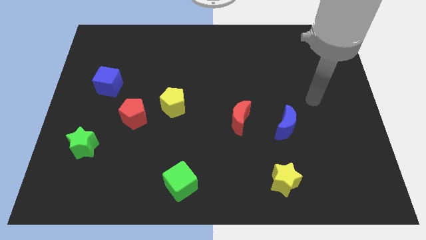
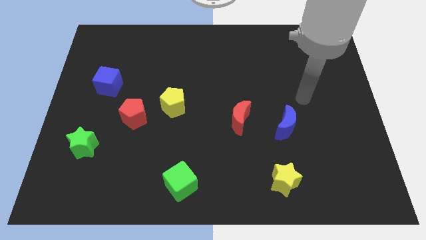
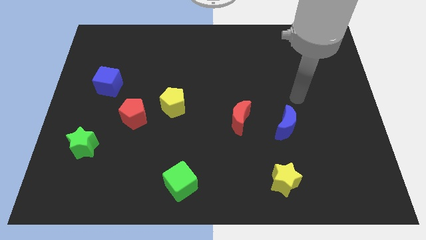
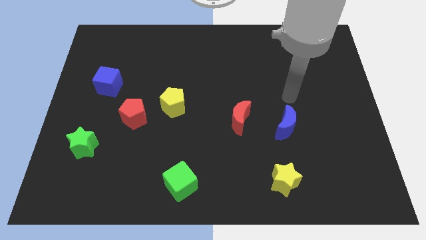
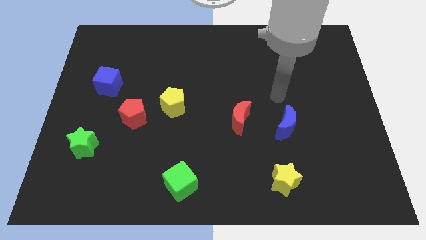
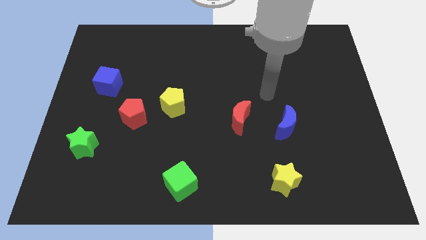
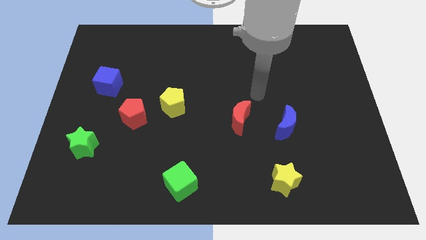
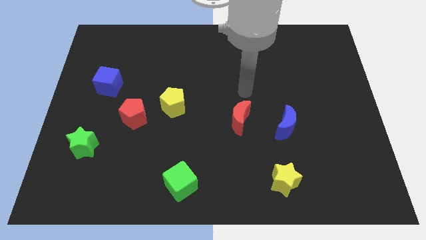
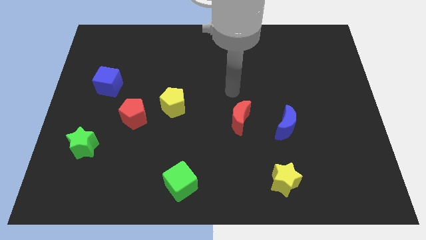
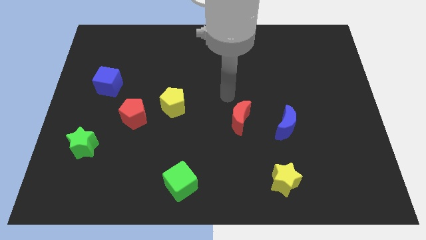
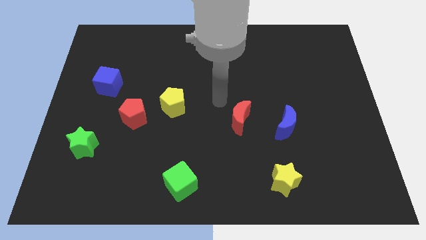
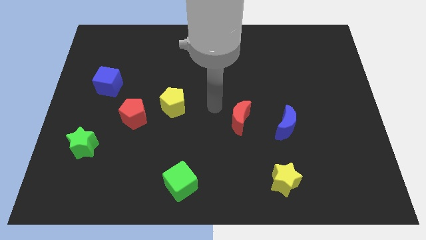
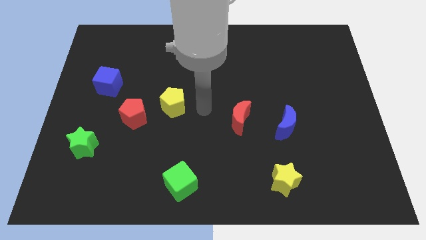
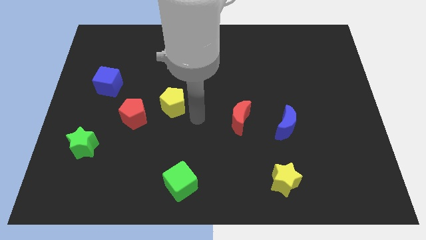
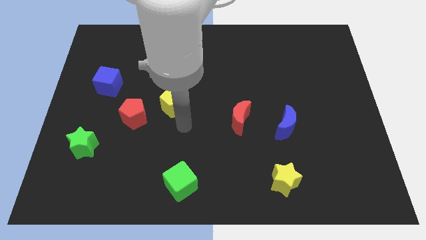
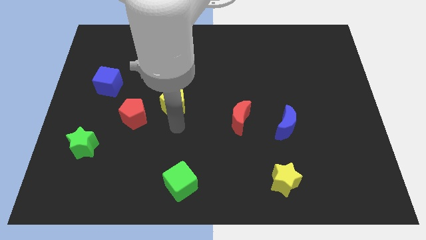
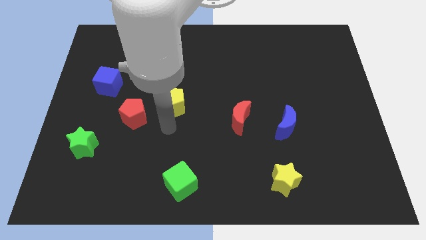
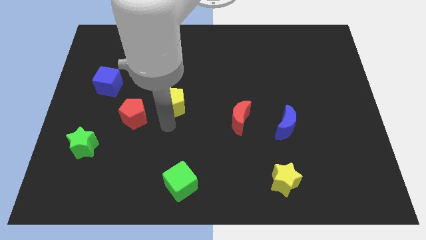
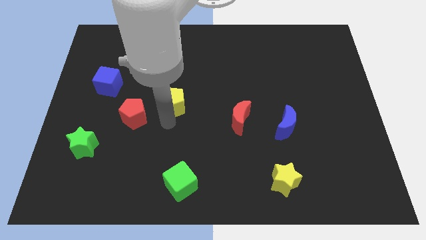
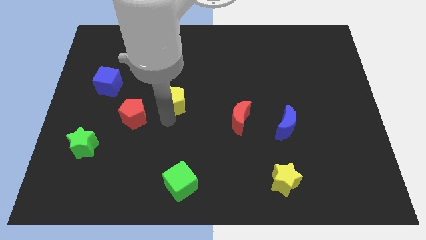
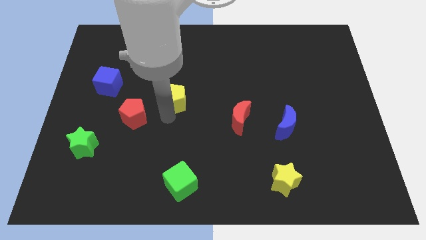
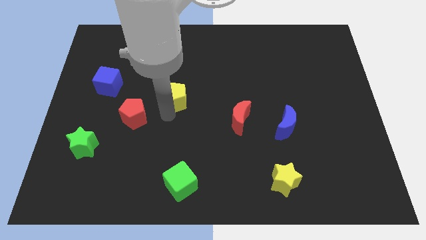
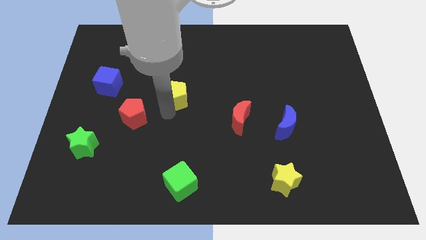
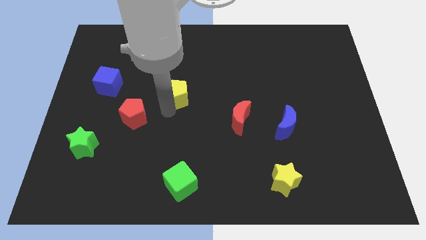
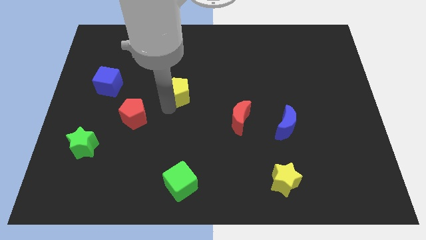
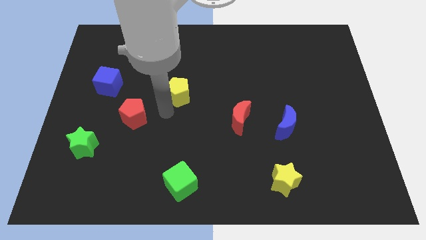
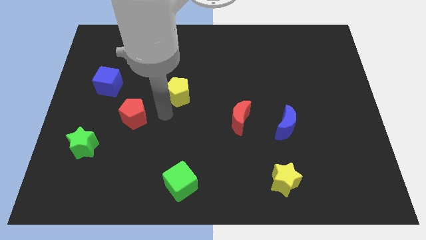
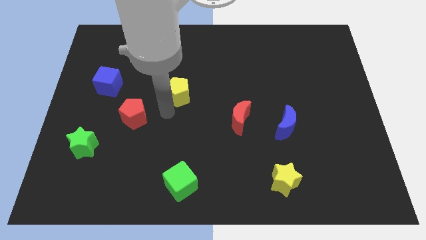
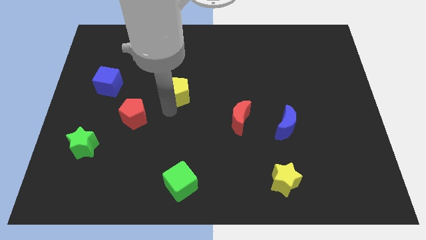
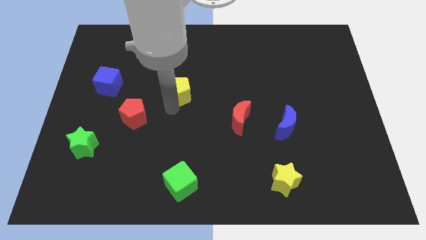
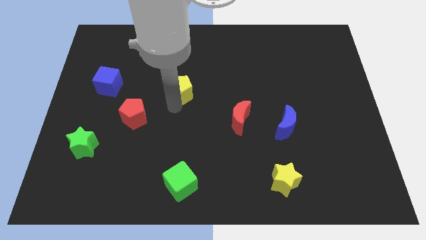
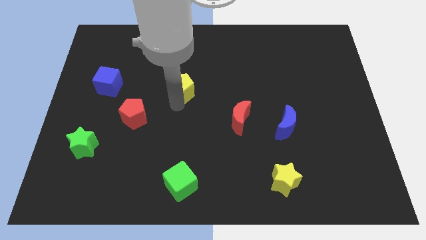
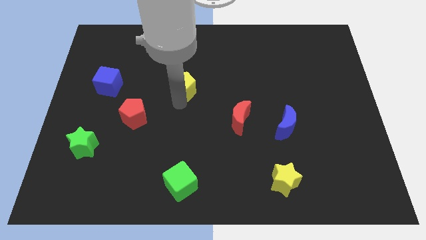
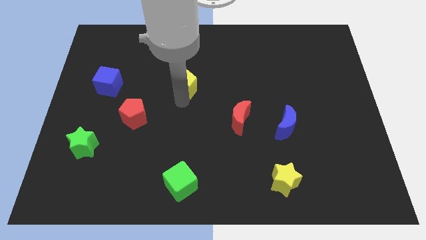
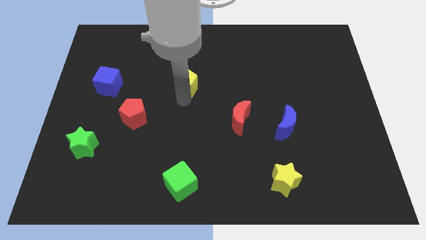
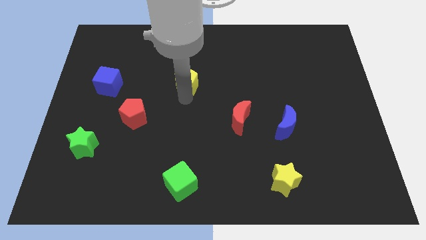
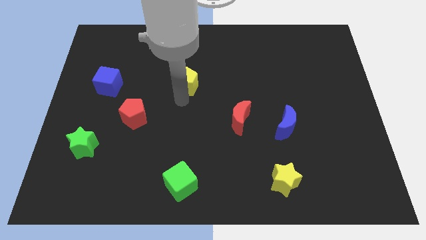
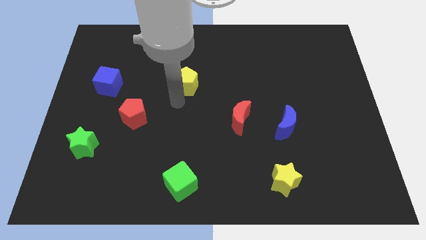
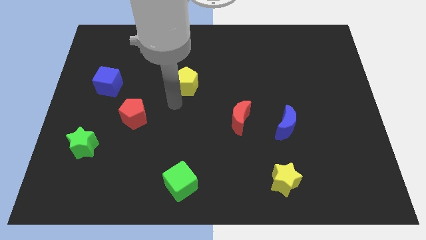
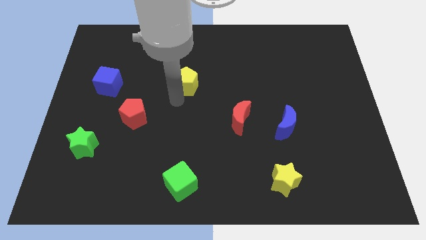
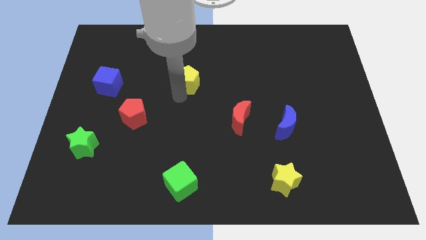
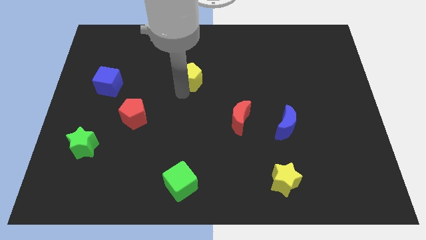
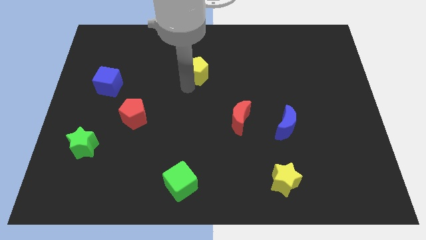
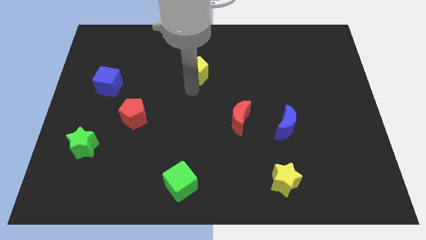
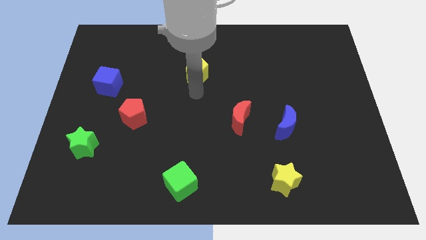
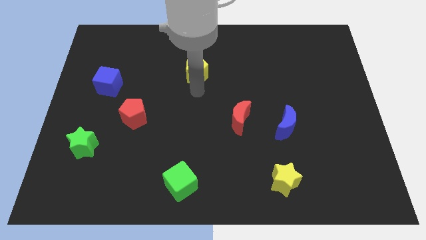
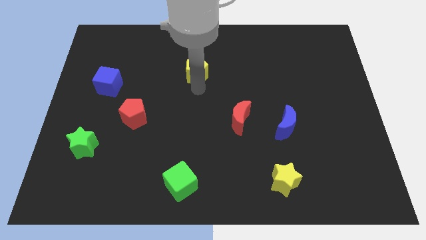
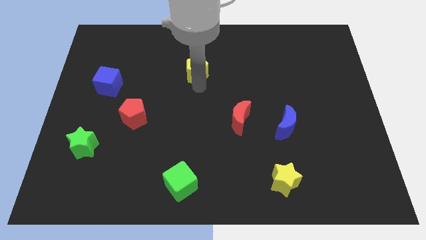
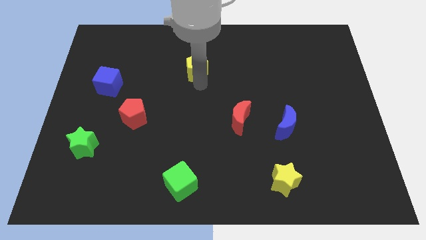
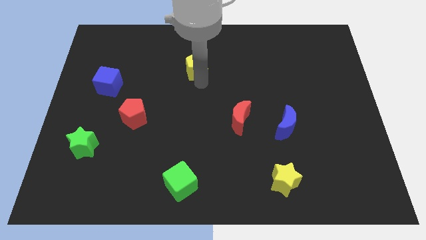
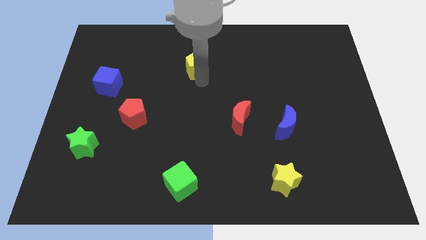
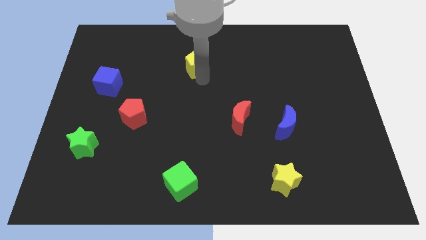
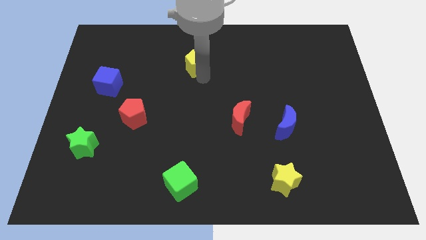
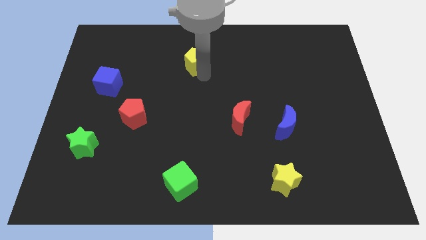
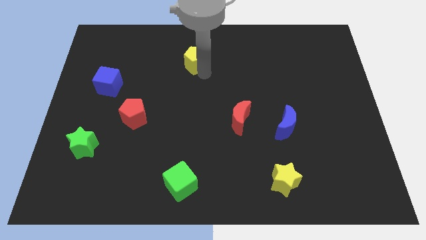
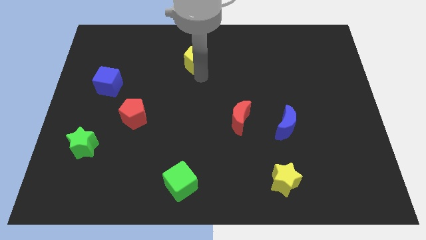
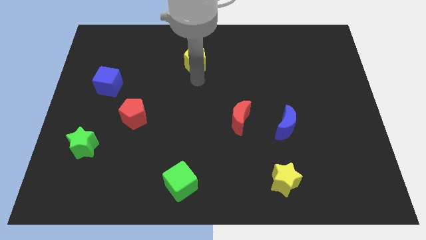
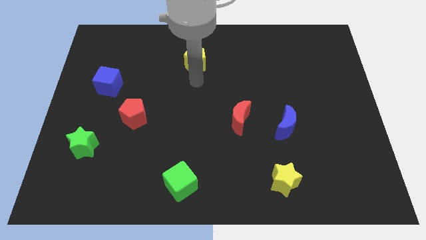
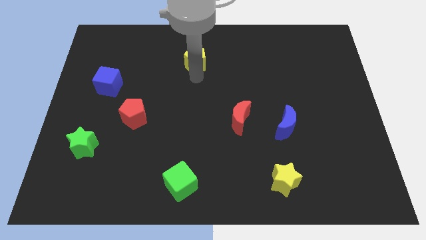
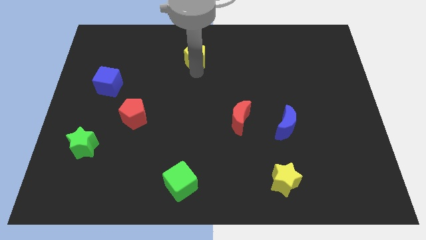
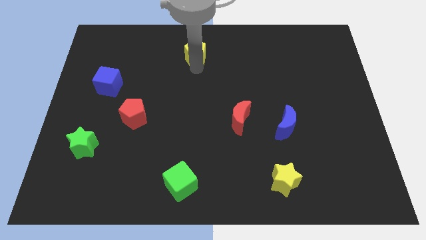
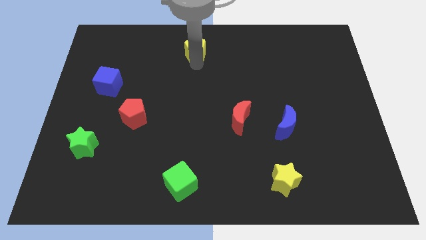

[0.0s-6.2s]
slide the yellow pentagon to the towards your base

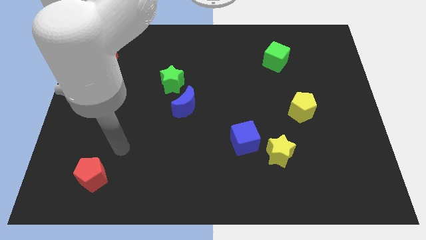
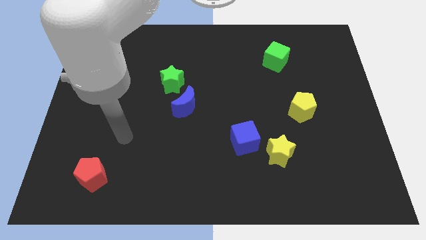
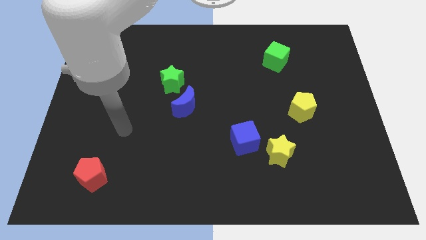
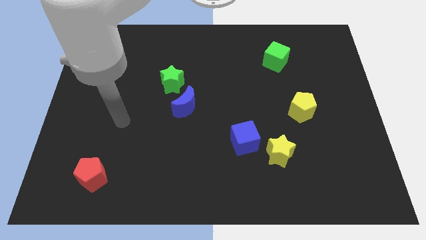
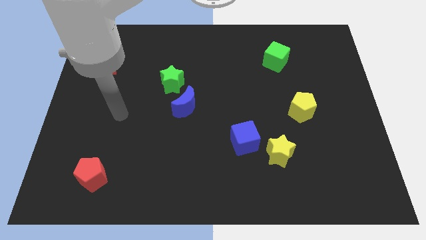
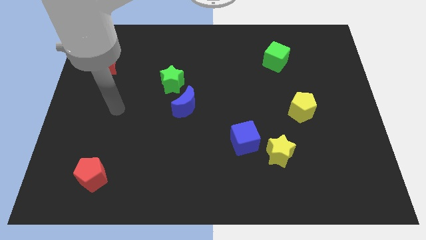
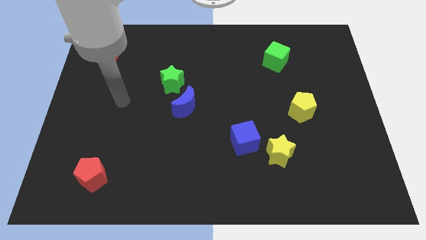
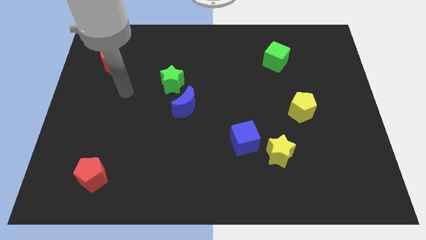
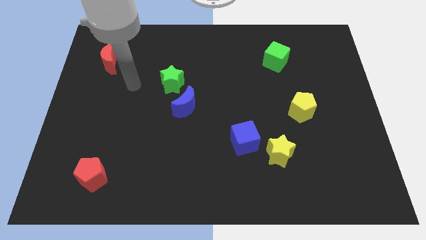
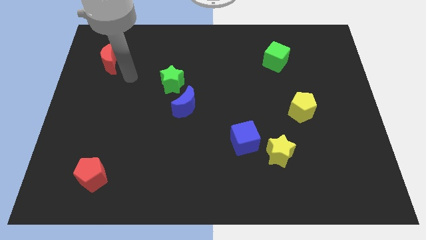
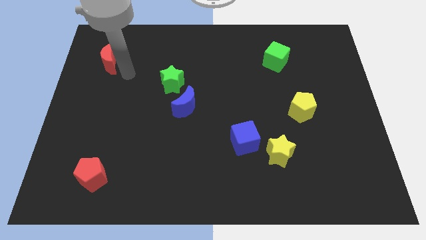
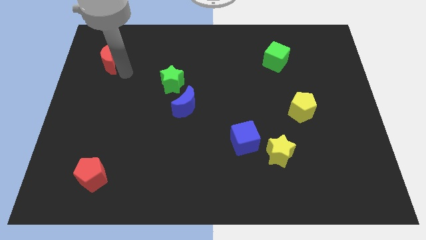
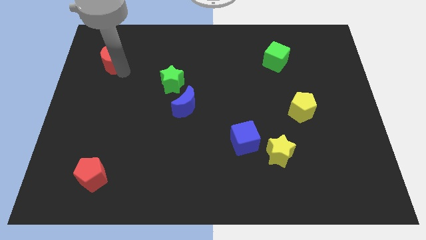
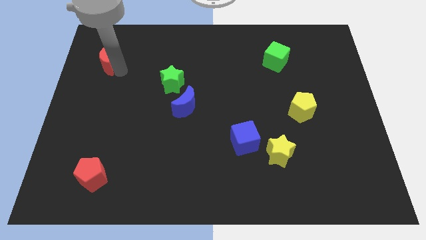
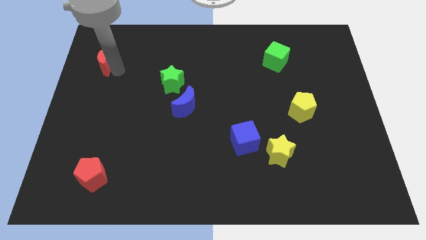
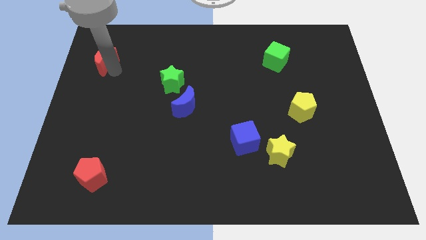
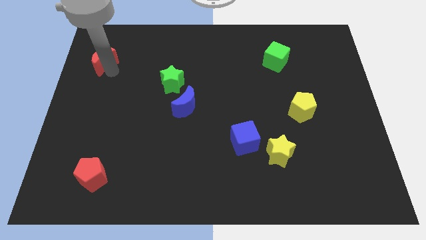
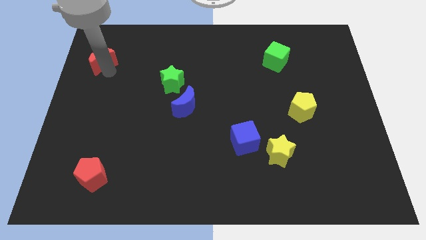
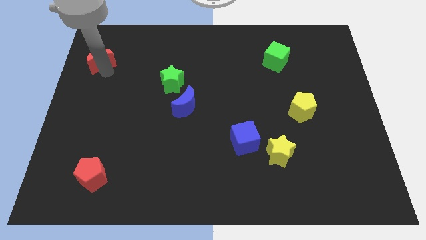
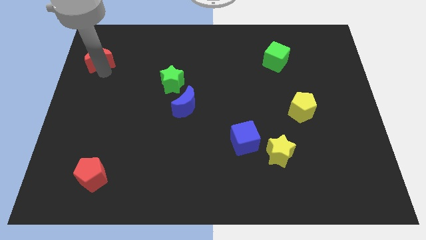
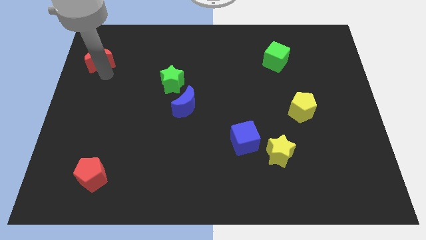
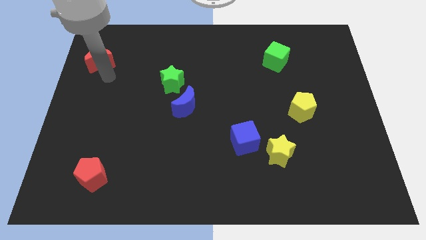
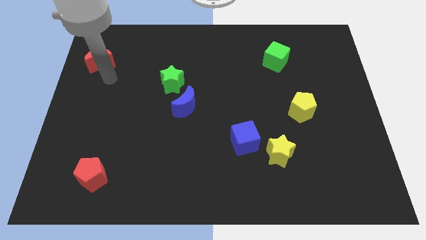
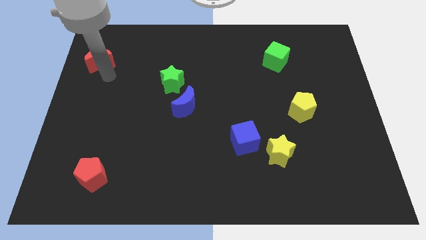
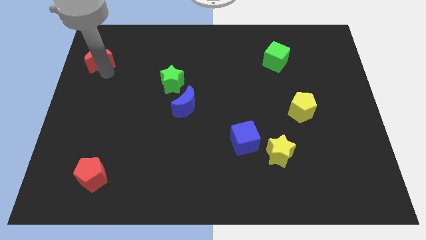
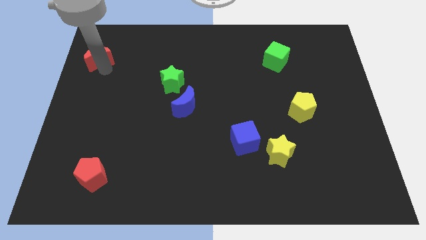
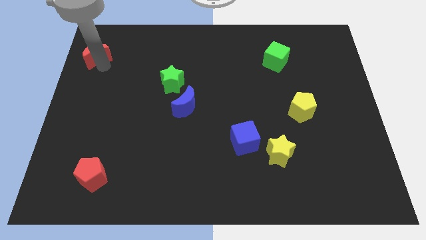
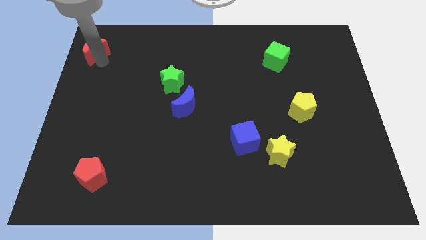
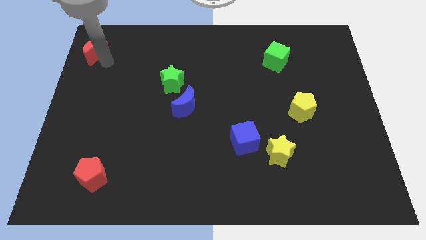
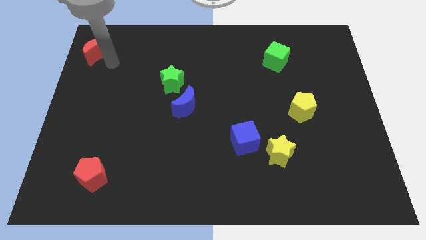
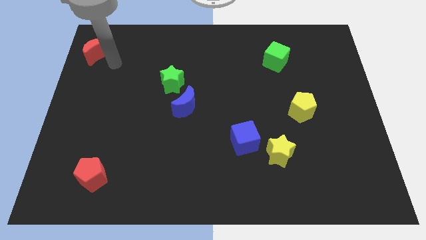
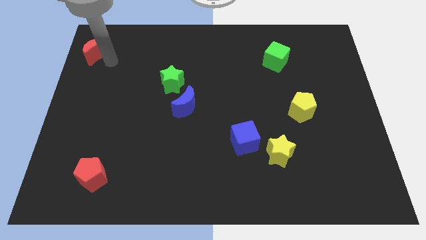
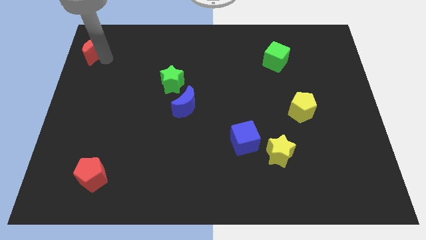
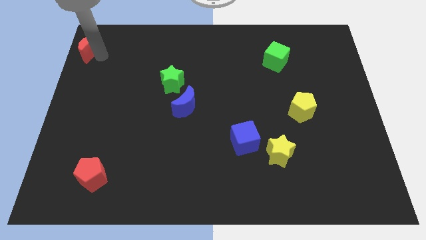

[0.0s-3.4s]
move the red moon to the top left corner
